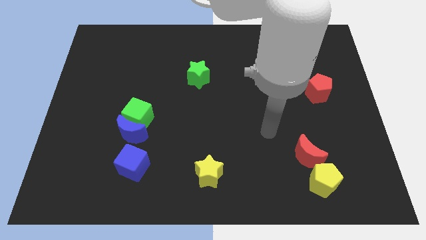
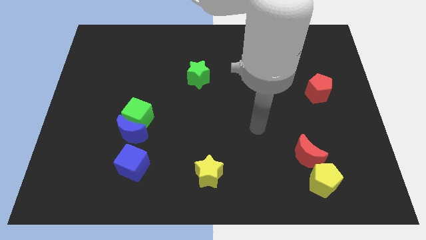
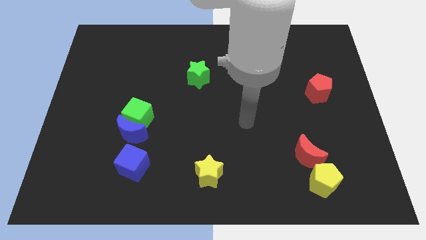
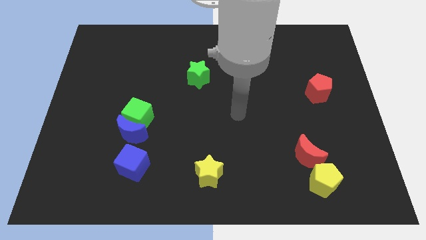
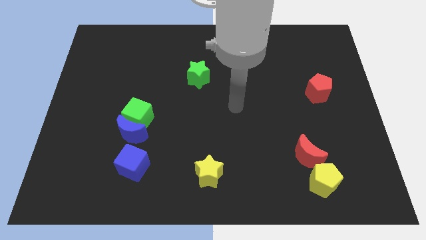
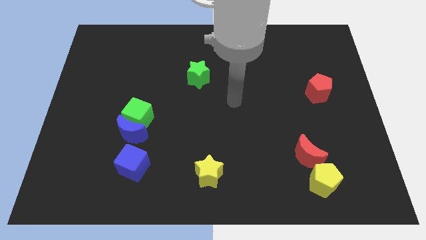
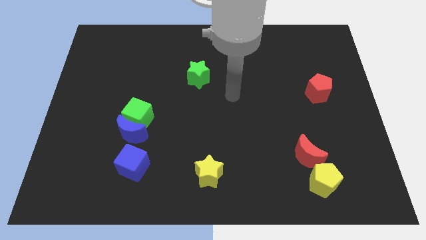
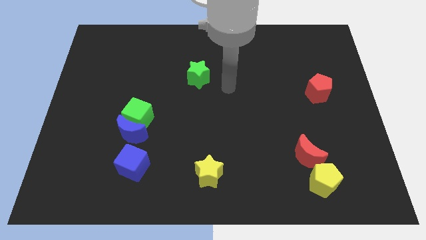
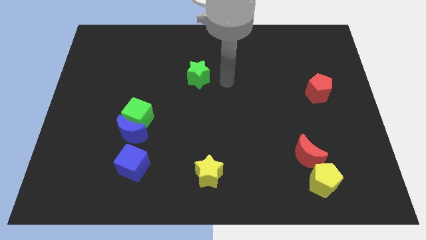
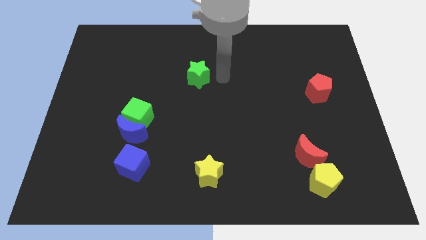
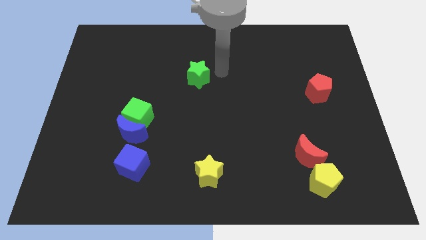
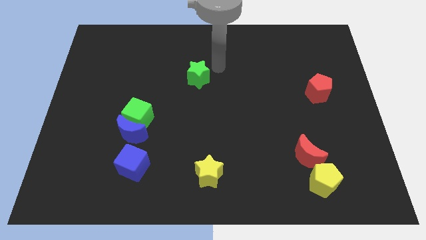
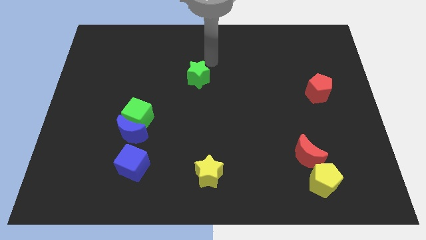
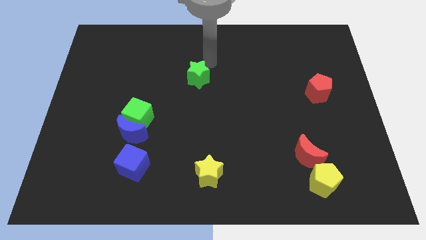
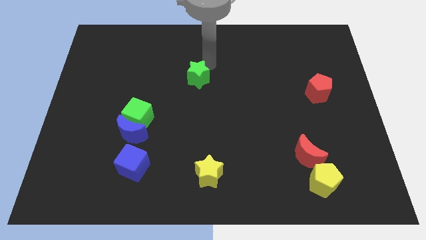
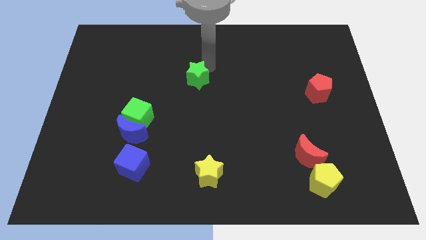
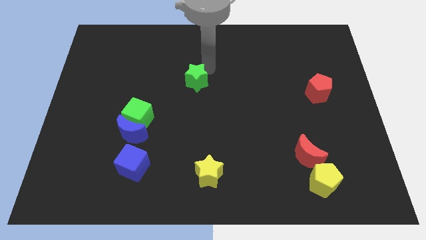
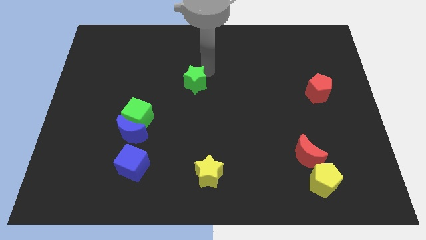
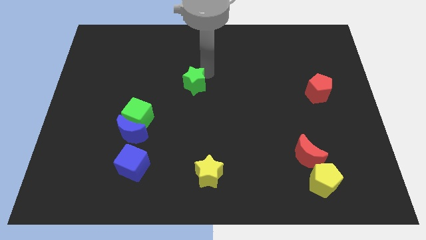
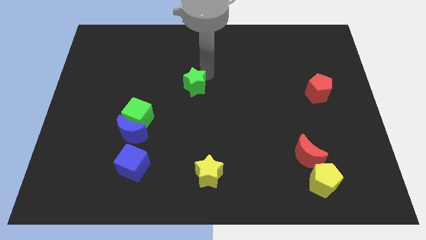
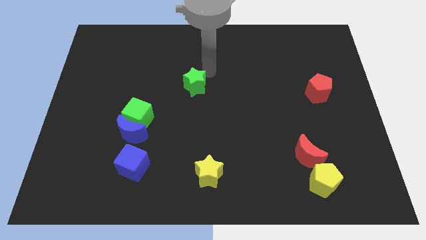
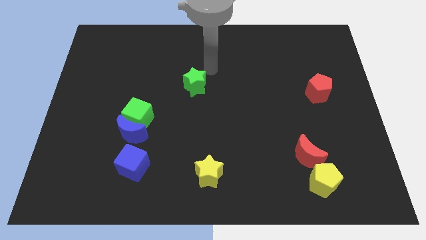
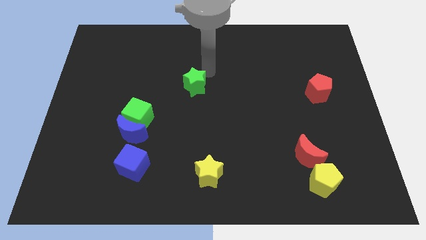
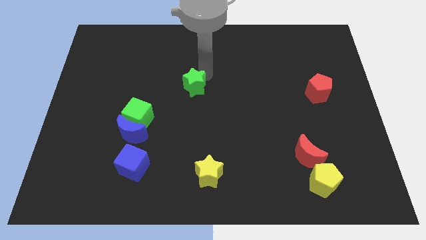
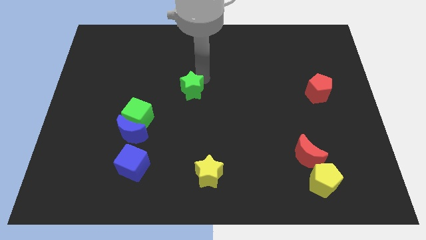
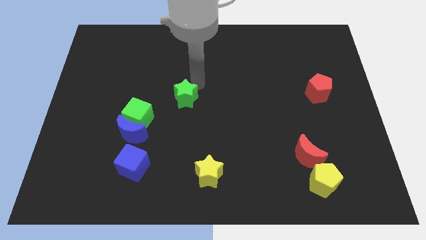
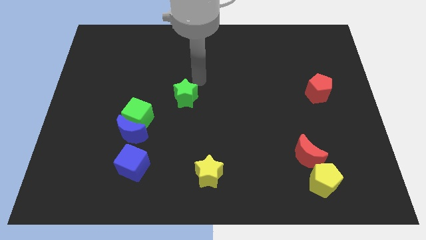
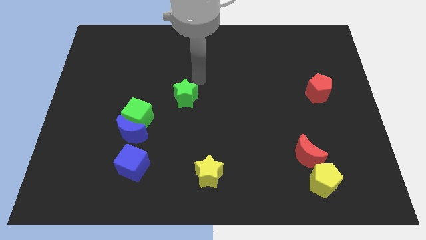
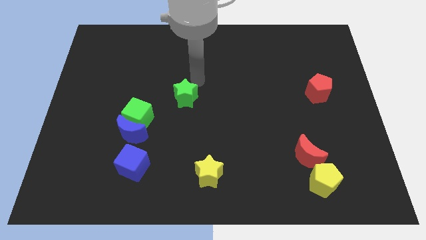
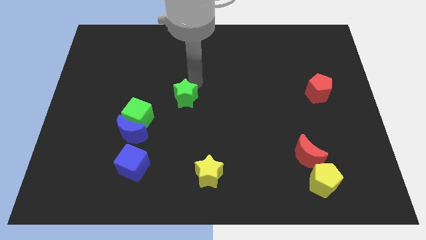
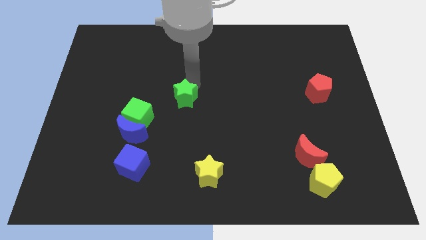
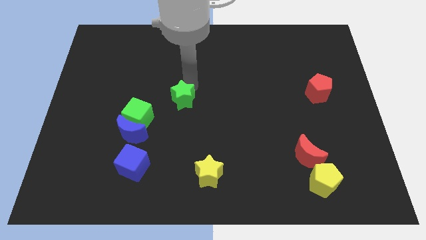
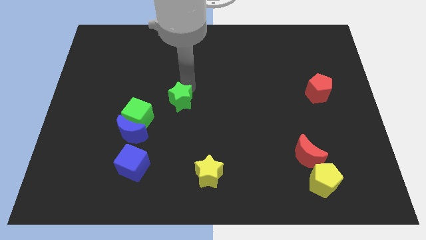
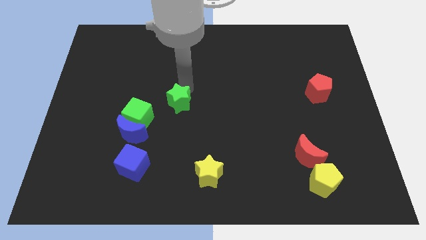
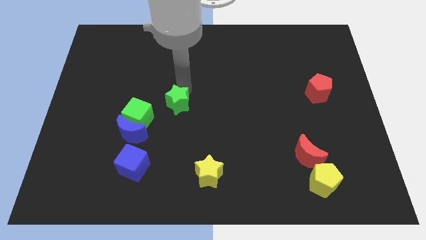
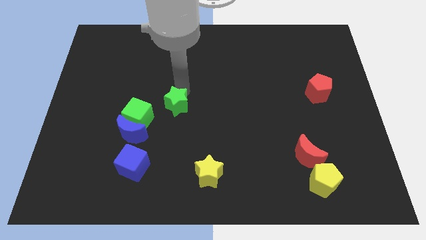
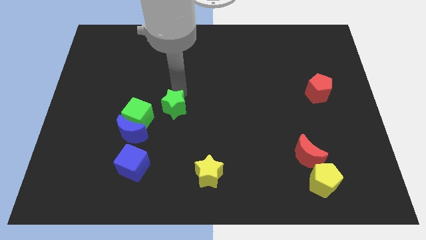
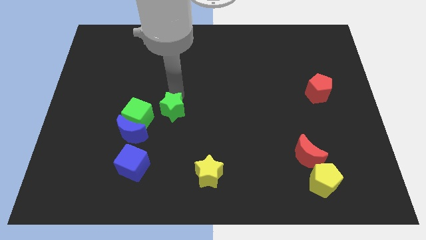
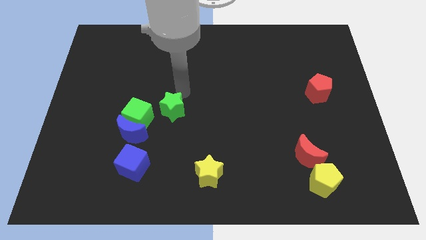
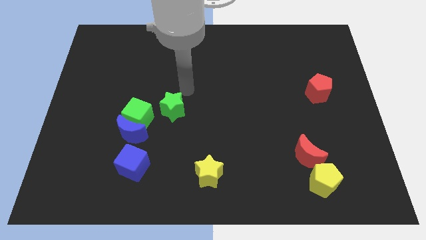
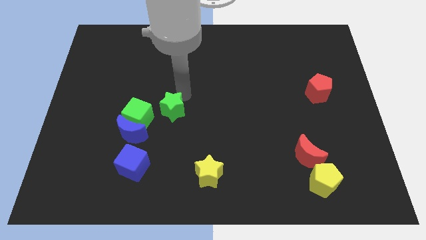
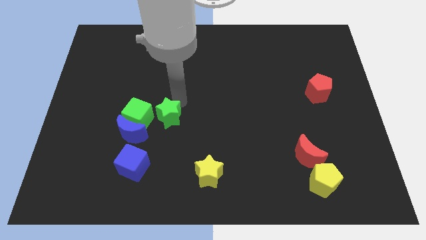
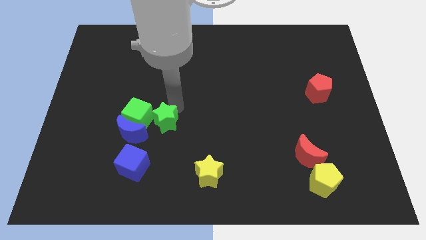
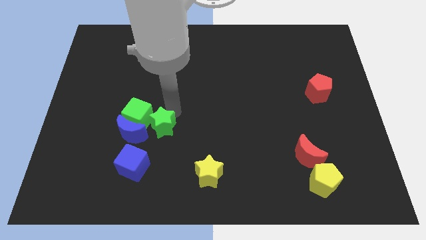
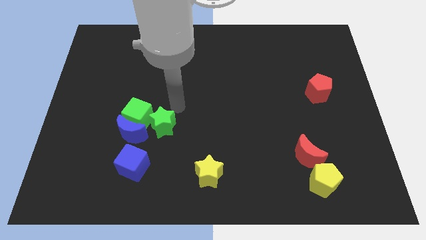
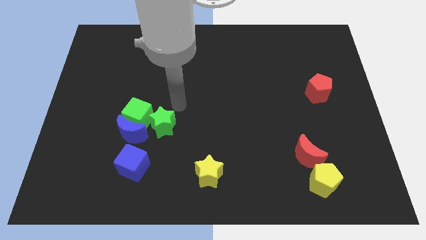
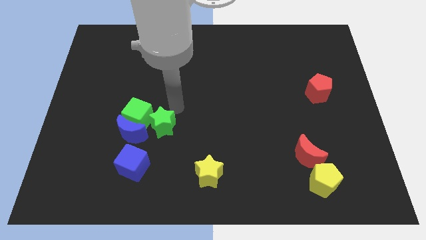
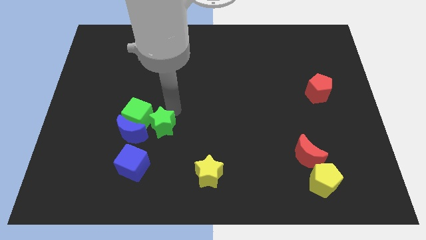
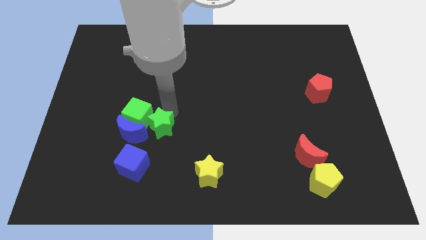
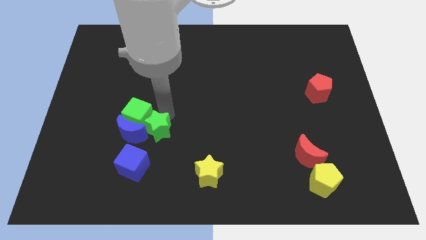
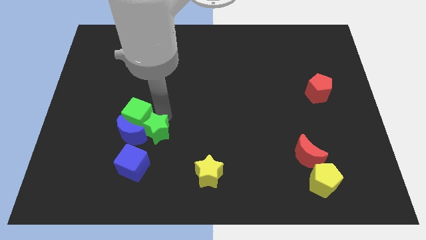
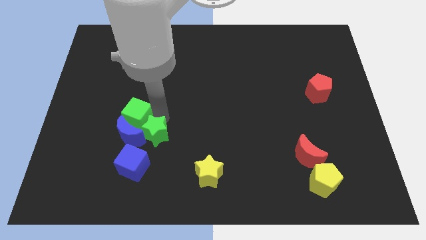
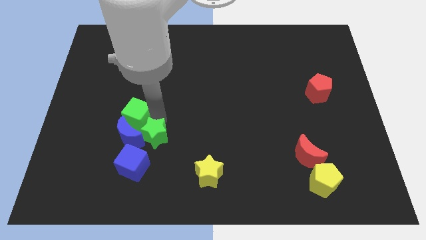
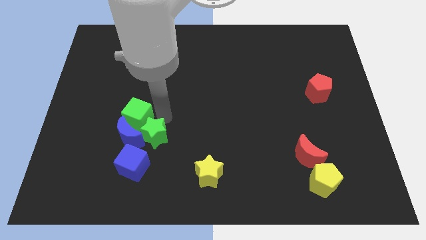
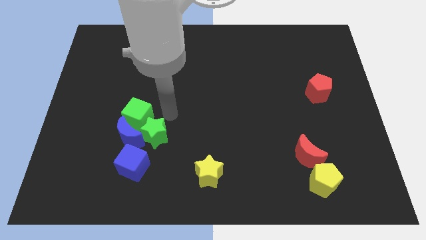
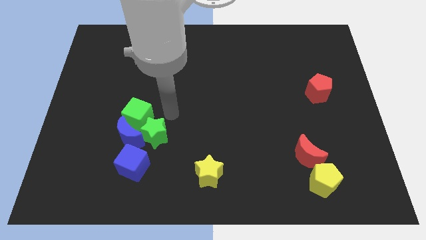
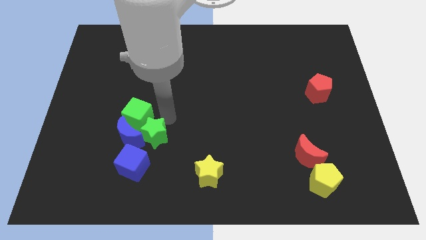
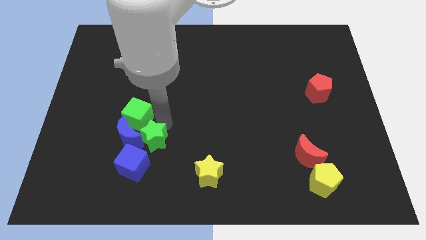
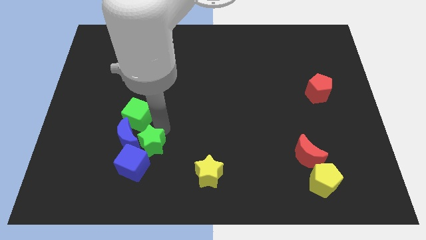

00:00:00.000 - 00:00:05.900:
push the green star next to the blue cube
